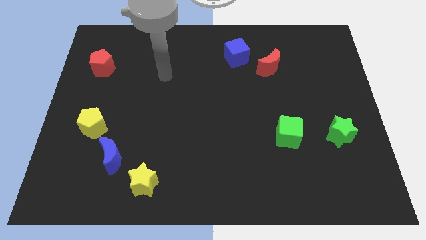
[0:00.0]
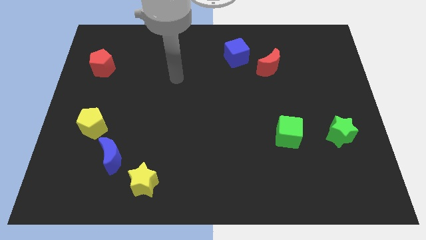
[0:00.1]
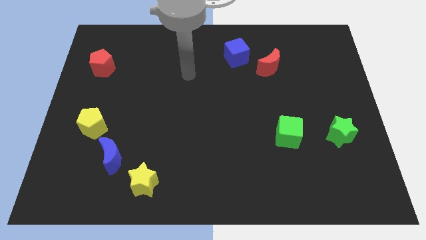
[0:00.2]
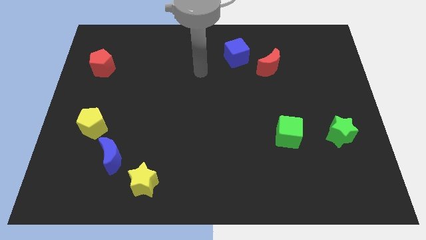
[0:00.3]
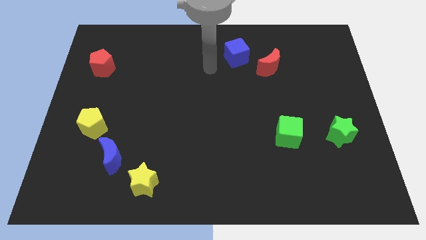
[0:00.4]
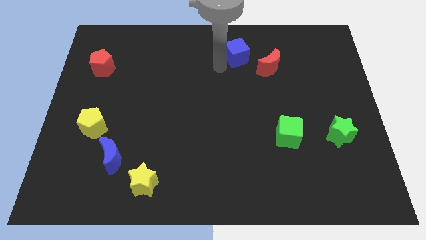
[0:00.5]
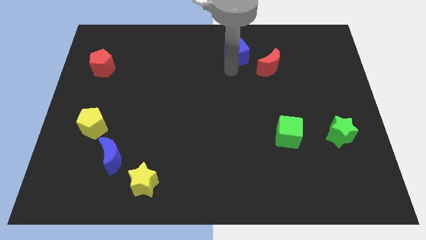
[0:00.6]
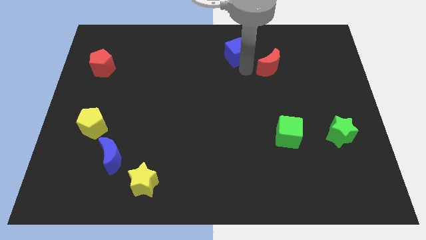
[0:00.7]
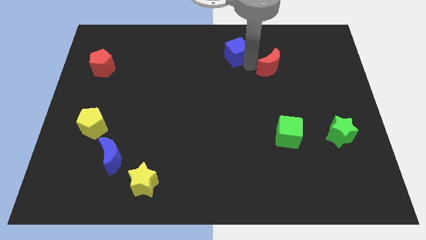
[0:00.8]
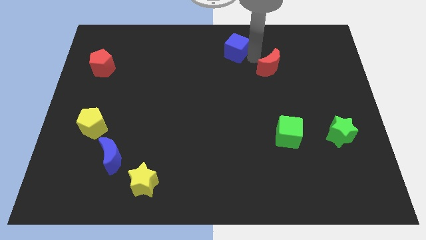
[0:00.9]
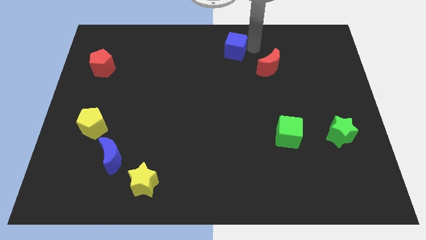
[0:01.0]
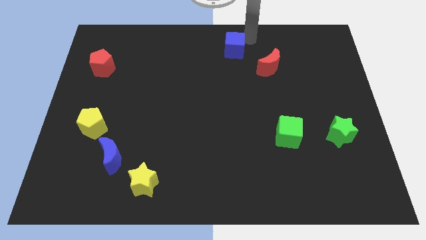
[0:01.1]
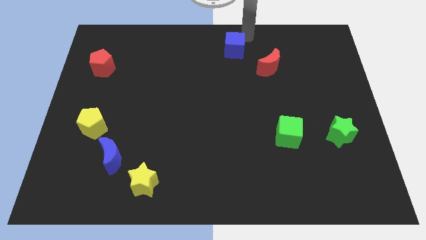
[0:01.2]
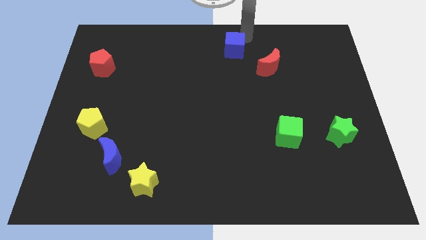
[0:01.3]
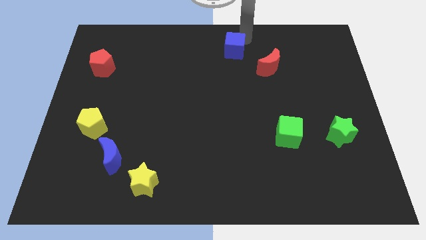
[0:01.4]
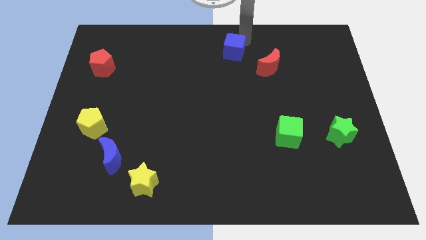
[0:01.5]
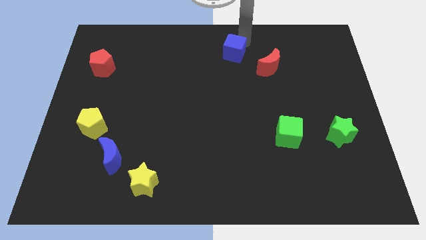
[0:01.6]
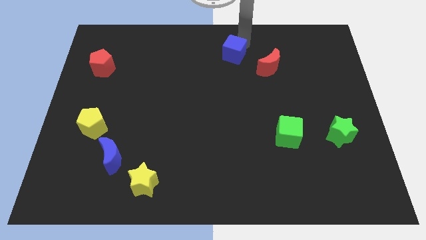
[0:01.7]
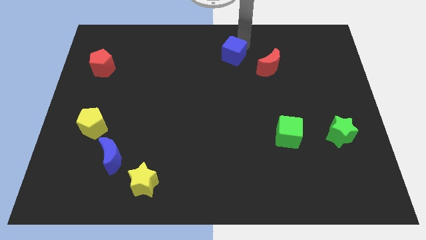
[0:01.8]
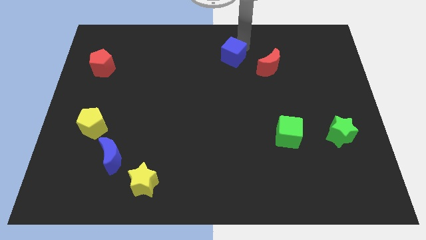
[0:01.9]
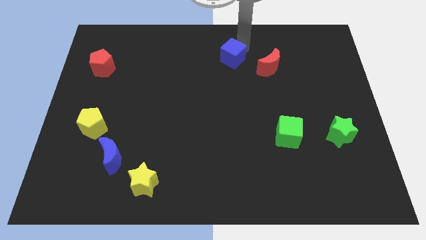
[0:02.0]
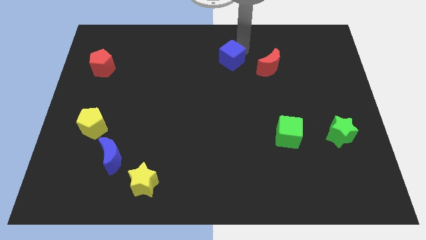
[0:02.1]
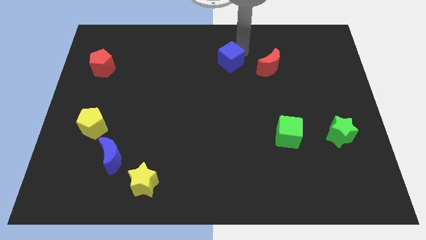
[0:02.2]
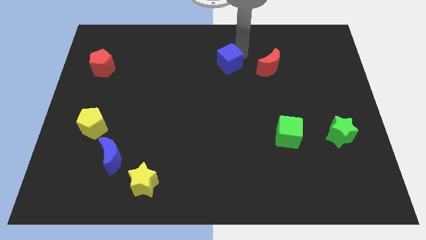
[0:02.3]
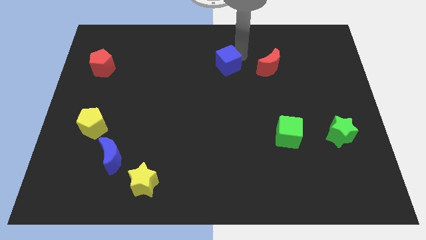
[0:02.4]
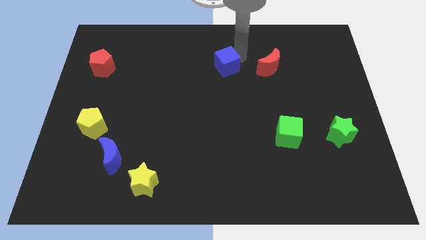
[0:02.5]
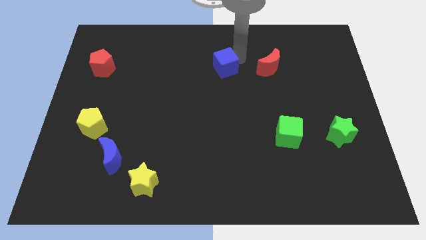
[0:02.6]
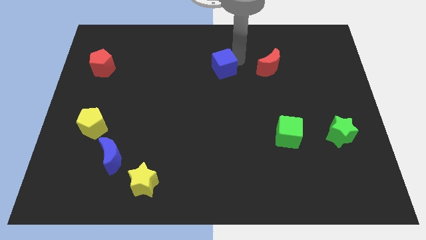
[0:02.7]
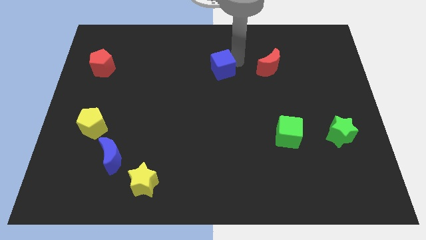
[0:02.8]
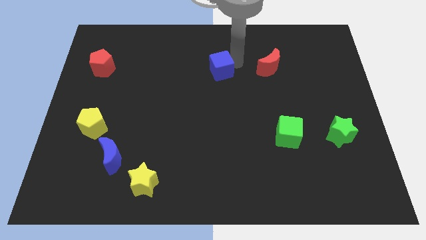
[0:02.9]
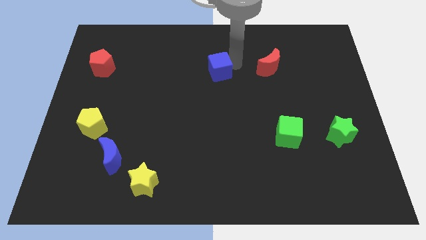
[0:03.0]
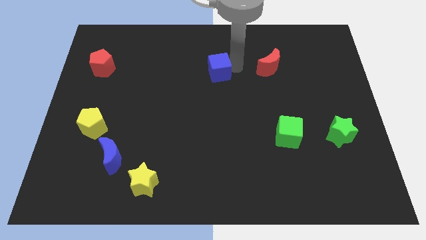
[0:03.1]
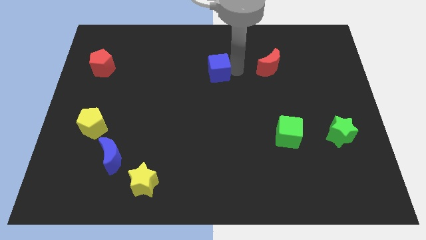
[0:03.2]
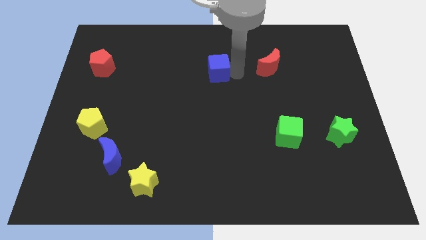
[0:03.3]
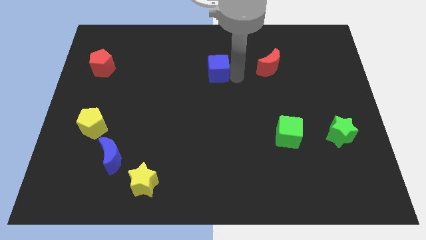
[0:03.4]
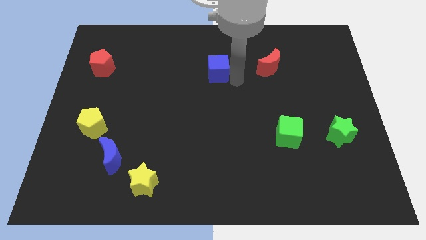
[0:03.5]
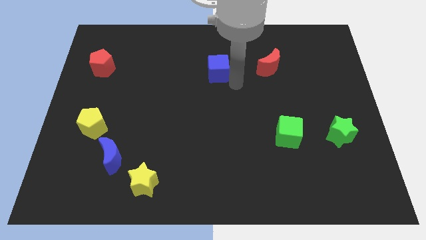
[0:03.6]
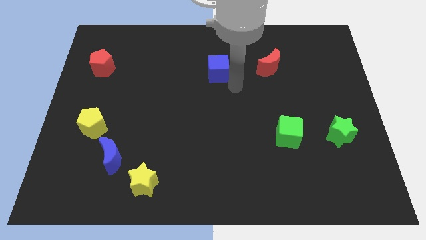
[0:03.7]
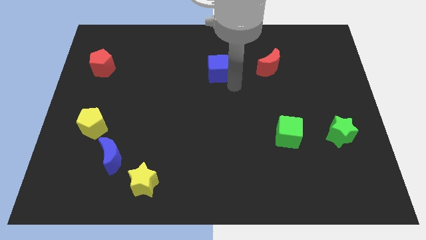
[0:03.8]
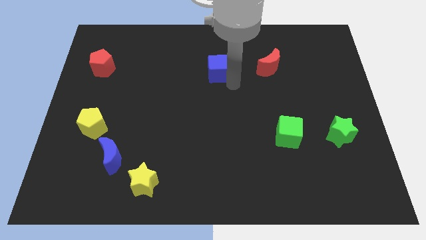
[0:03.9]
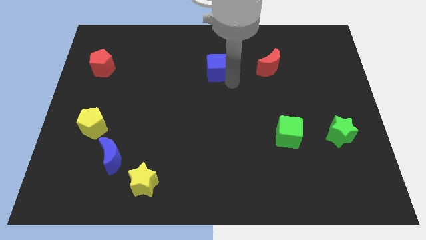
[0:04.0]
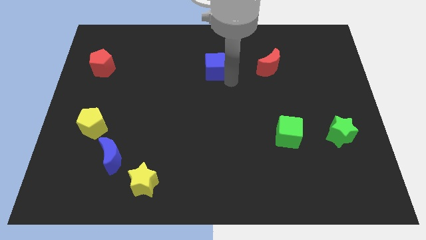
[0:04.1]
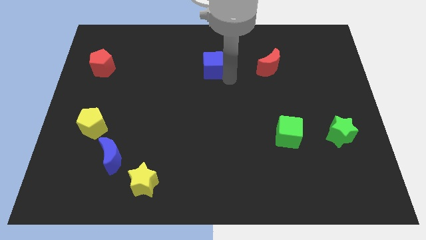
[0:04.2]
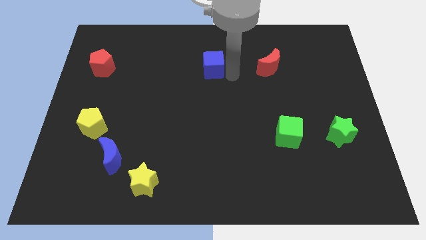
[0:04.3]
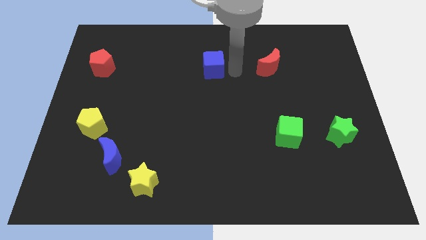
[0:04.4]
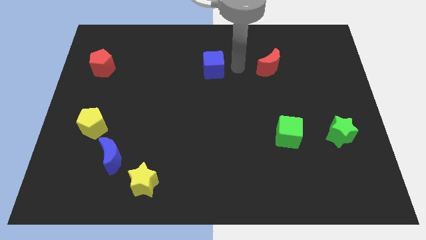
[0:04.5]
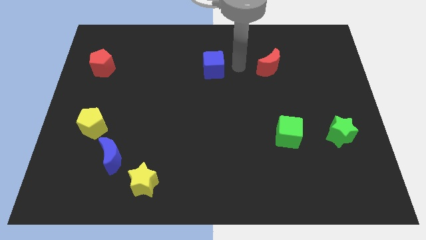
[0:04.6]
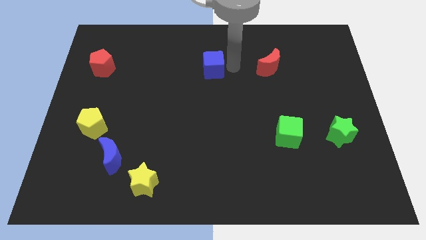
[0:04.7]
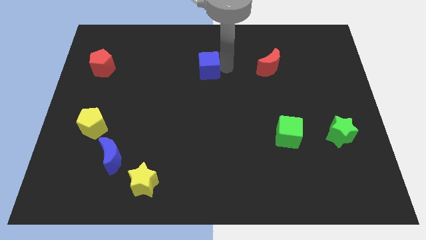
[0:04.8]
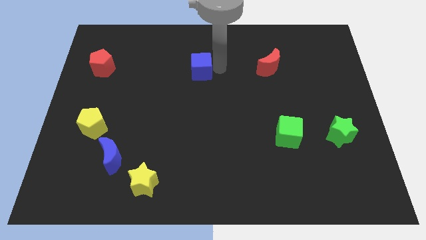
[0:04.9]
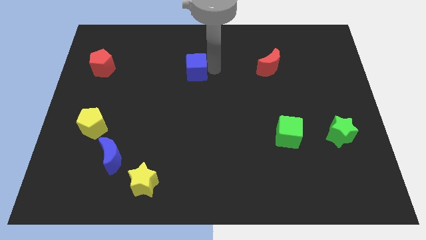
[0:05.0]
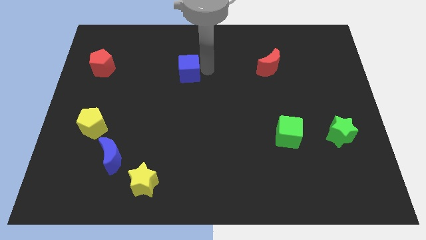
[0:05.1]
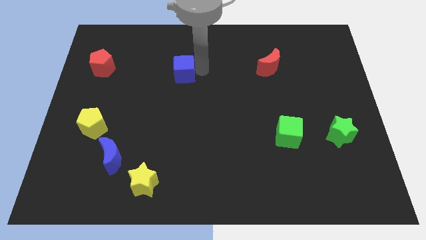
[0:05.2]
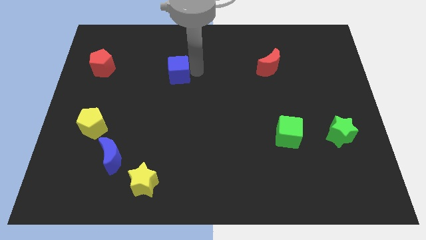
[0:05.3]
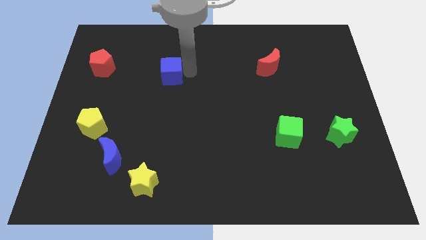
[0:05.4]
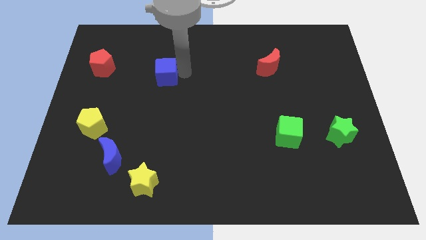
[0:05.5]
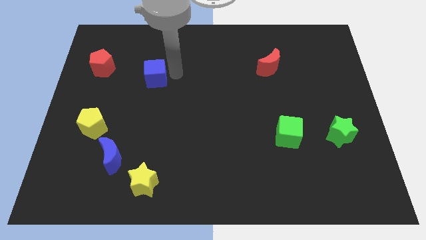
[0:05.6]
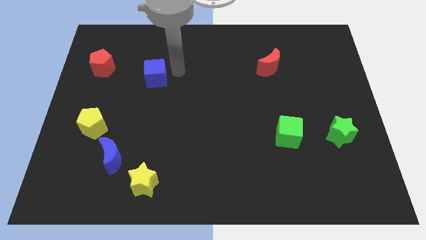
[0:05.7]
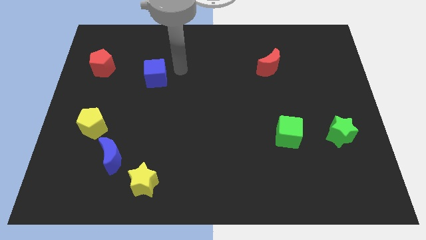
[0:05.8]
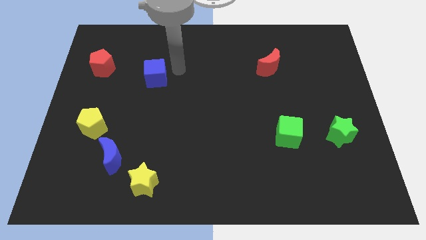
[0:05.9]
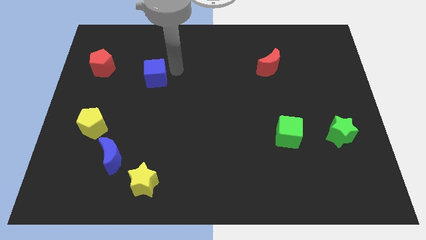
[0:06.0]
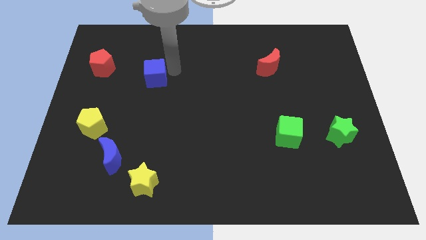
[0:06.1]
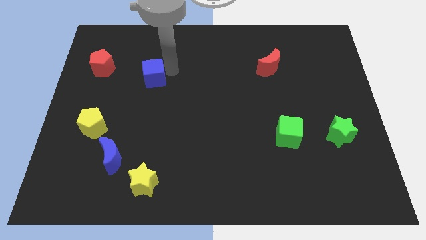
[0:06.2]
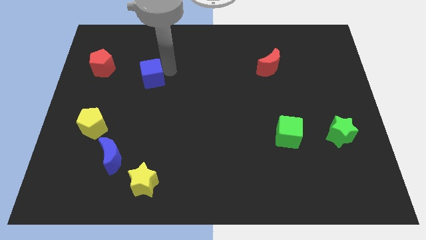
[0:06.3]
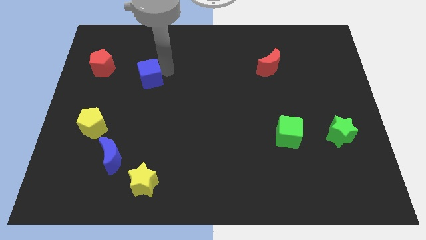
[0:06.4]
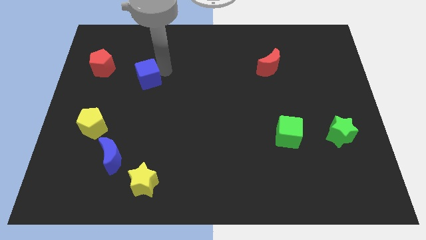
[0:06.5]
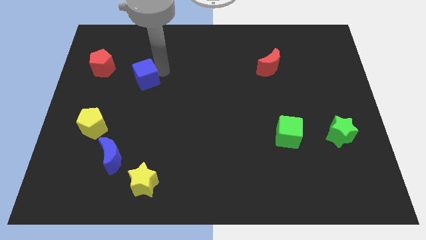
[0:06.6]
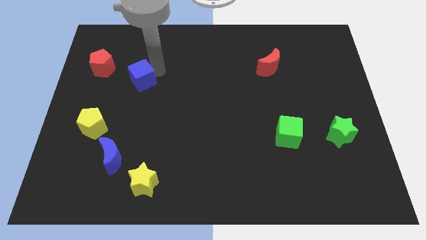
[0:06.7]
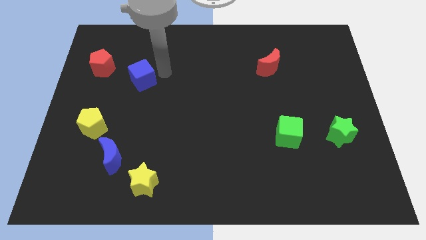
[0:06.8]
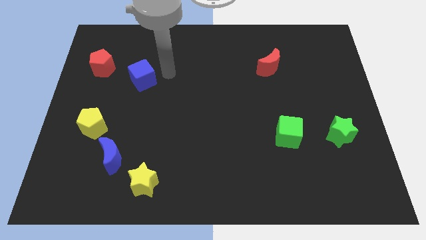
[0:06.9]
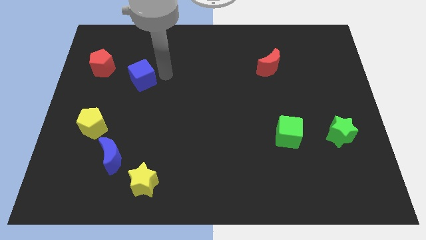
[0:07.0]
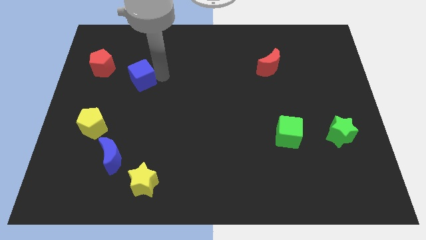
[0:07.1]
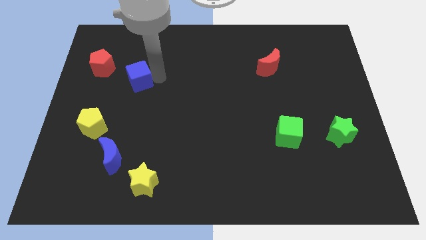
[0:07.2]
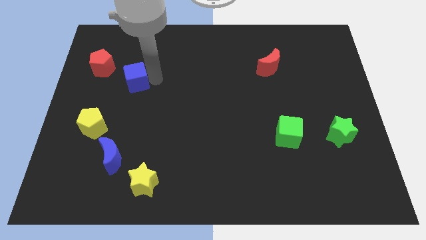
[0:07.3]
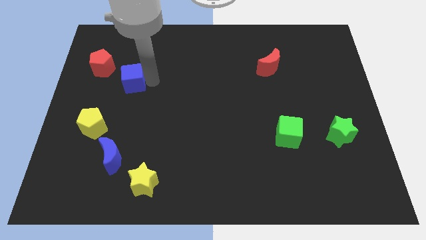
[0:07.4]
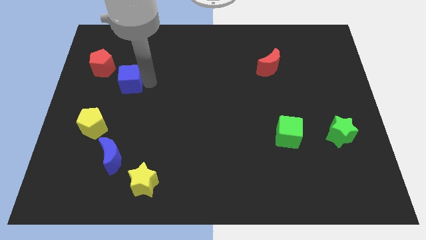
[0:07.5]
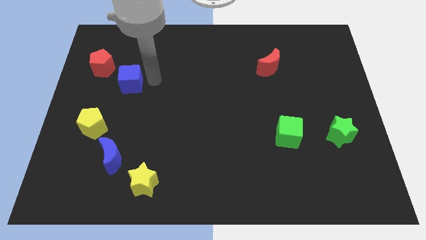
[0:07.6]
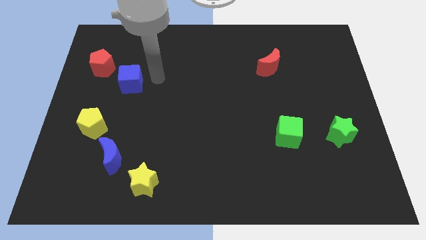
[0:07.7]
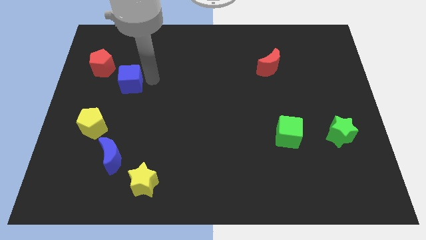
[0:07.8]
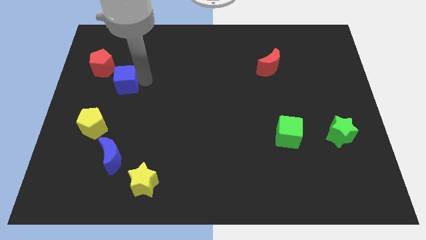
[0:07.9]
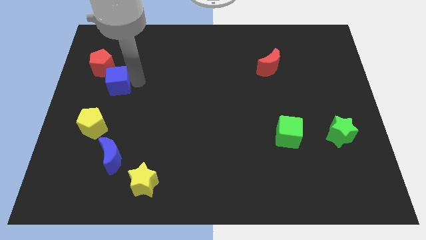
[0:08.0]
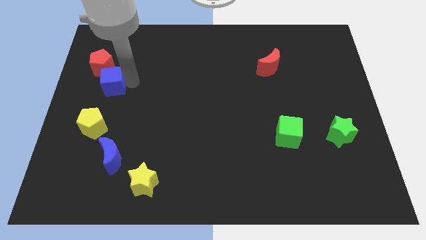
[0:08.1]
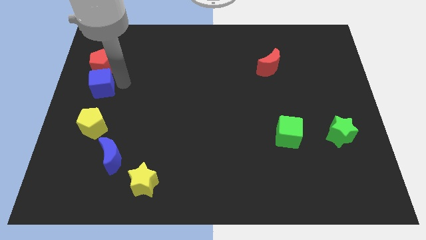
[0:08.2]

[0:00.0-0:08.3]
put the blue cube to the left side
